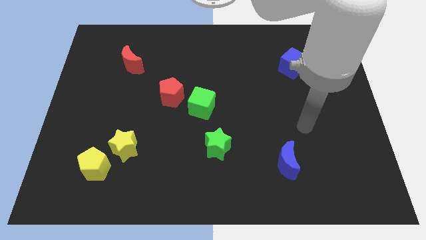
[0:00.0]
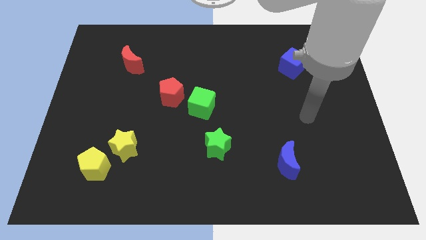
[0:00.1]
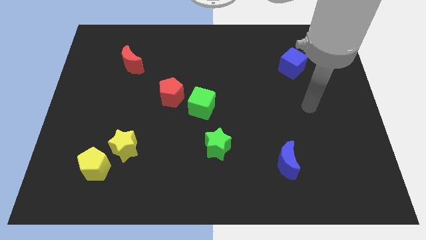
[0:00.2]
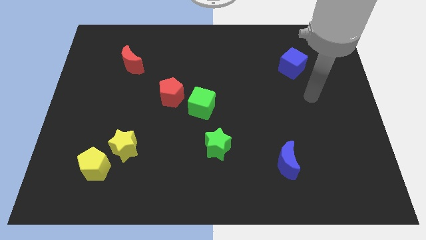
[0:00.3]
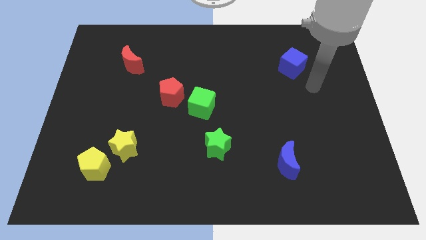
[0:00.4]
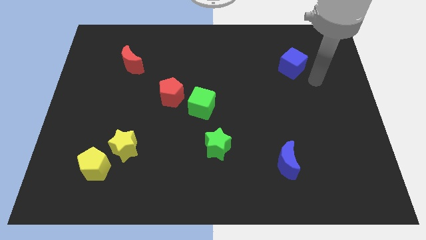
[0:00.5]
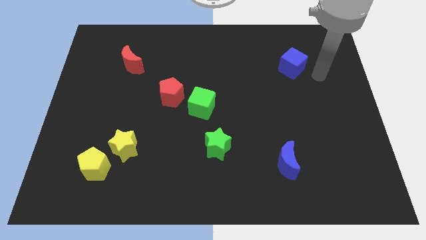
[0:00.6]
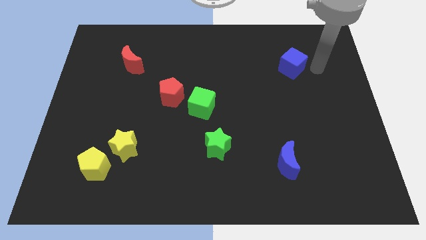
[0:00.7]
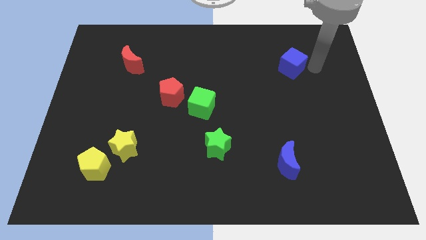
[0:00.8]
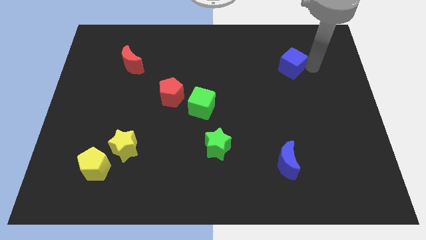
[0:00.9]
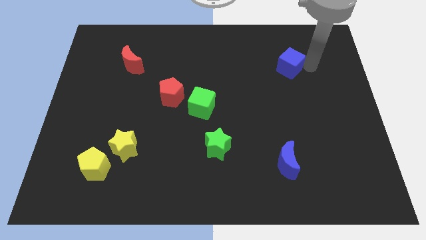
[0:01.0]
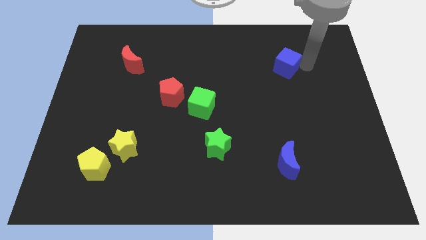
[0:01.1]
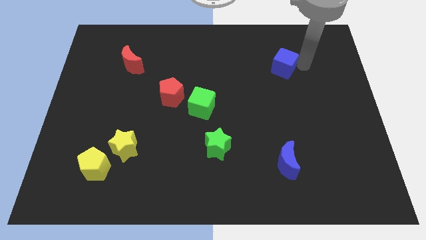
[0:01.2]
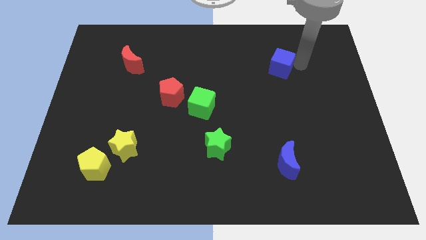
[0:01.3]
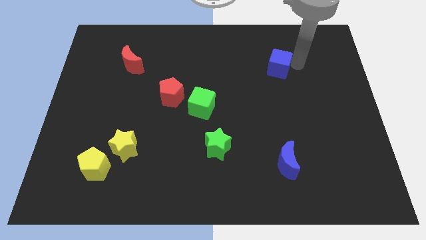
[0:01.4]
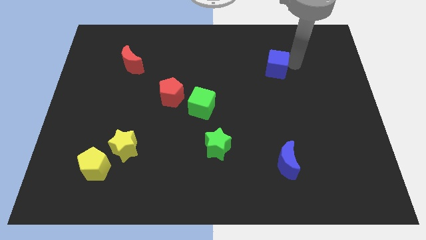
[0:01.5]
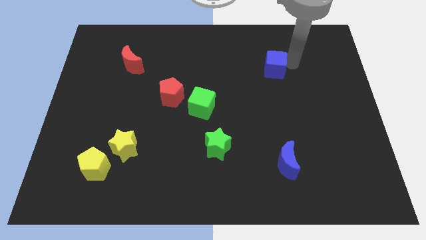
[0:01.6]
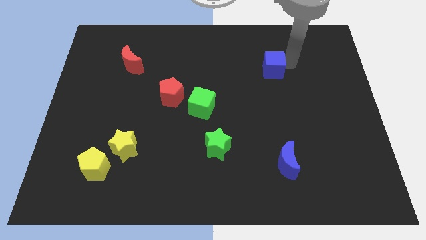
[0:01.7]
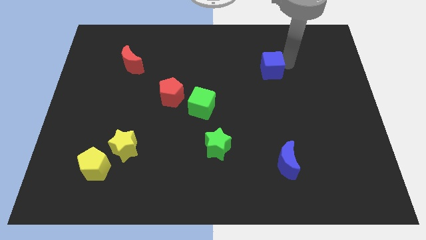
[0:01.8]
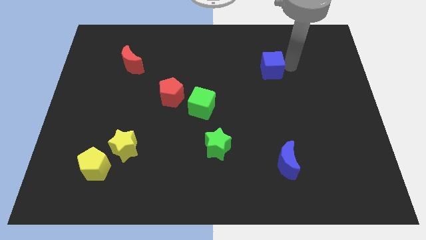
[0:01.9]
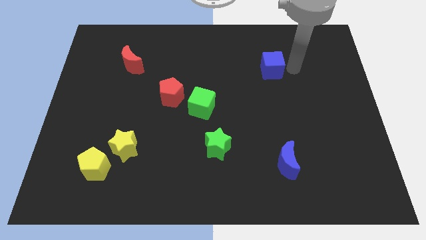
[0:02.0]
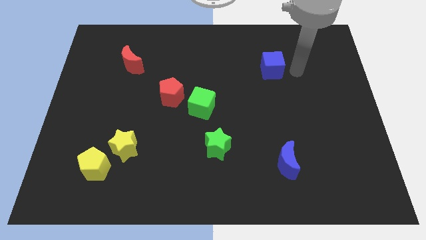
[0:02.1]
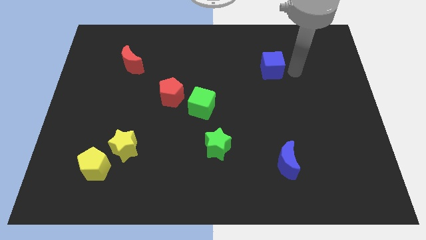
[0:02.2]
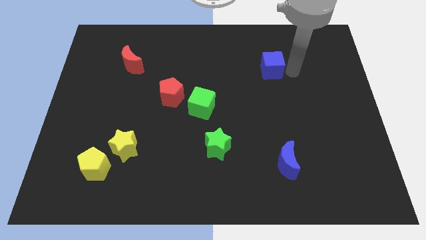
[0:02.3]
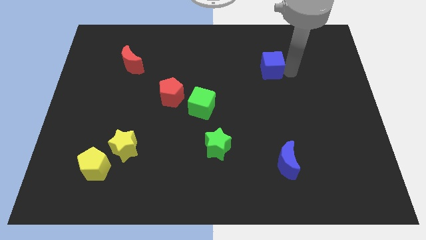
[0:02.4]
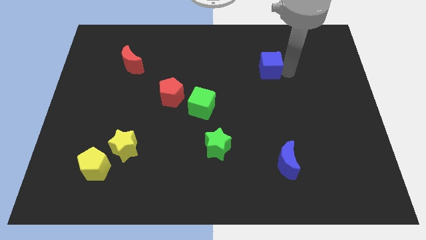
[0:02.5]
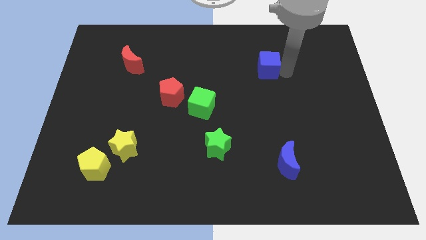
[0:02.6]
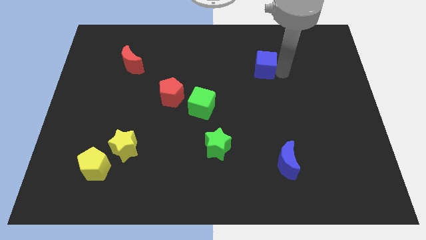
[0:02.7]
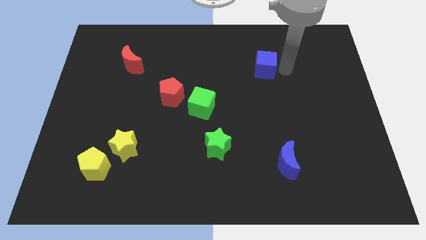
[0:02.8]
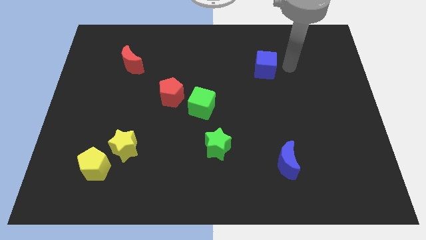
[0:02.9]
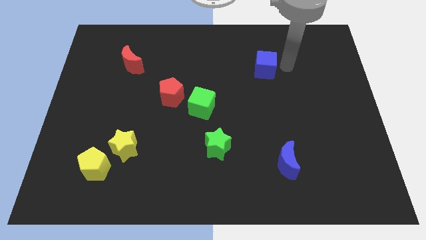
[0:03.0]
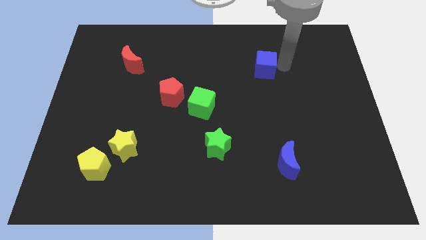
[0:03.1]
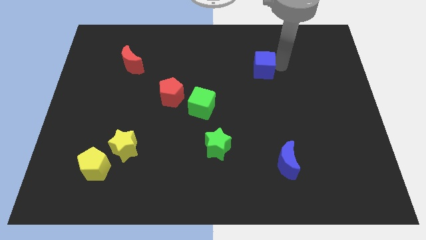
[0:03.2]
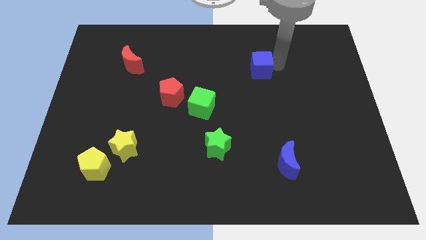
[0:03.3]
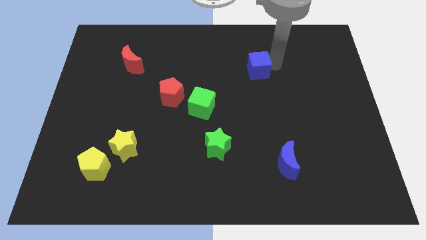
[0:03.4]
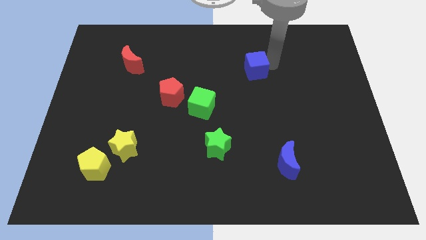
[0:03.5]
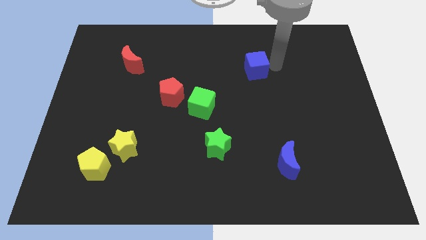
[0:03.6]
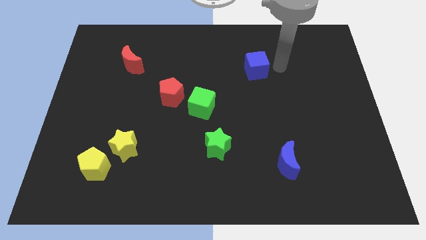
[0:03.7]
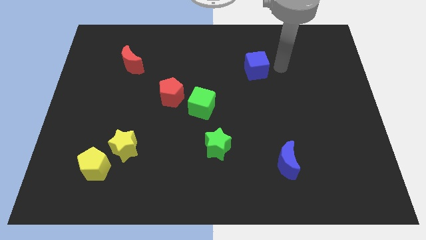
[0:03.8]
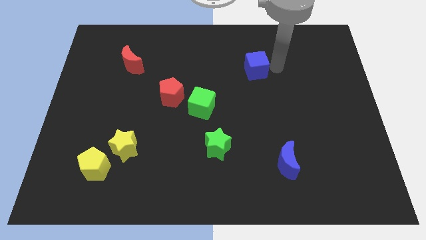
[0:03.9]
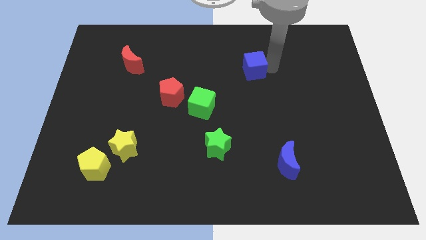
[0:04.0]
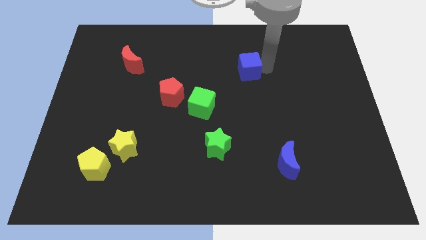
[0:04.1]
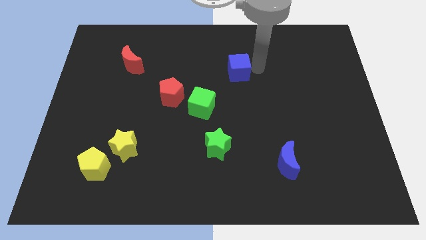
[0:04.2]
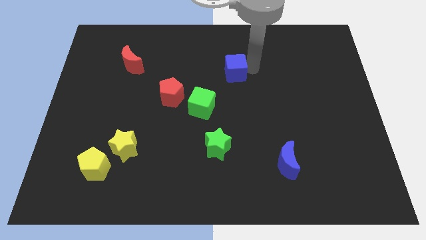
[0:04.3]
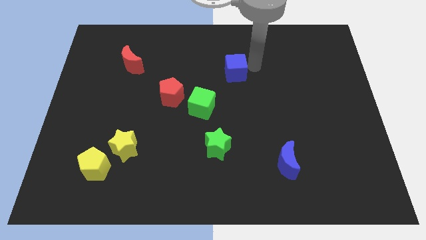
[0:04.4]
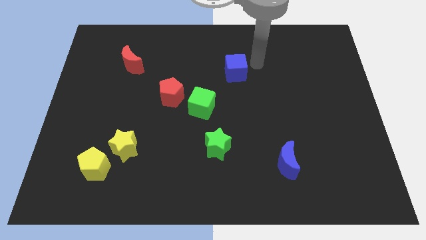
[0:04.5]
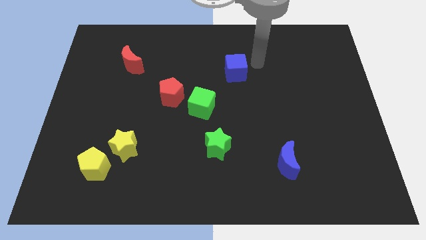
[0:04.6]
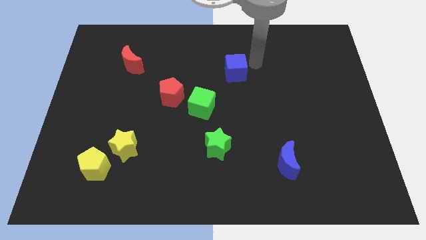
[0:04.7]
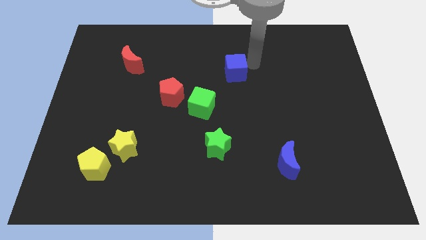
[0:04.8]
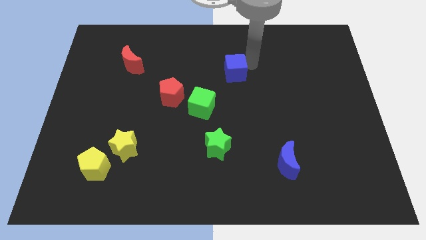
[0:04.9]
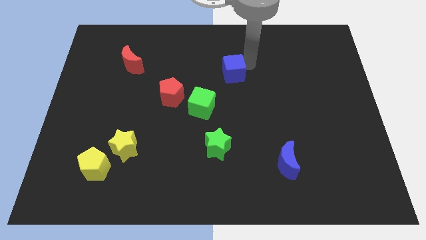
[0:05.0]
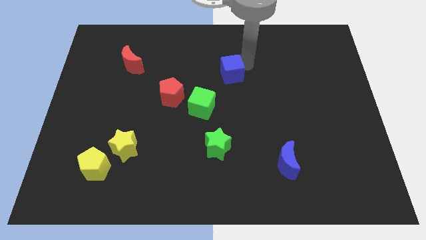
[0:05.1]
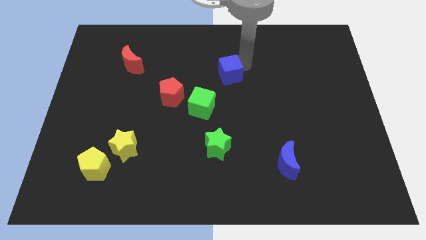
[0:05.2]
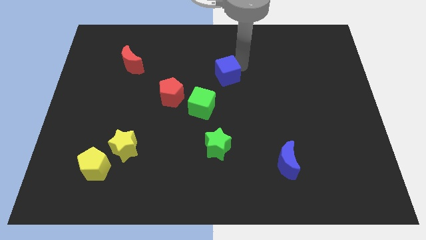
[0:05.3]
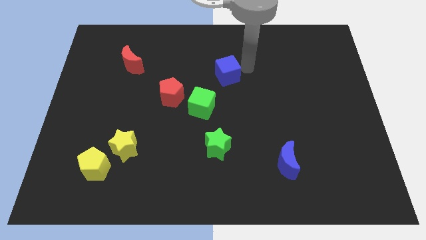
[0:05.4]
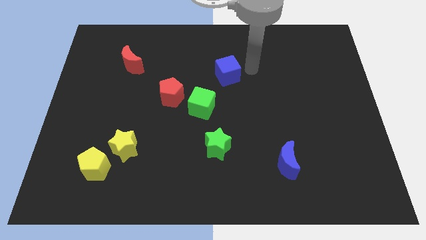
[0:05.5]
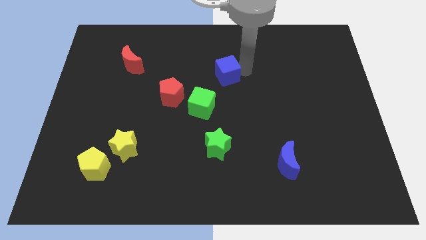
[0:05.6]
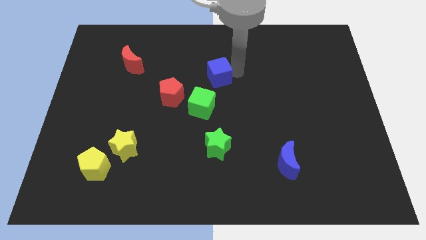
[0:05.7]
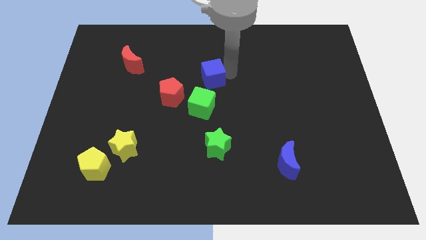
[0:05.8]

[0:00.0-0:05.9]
push the blue cube diagonally up and to the right of the red pentagon

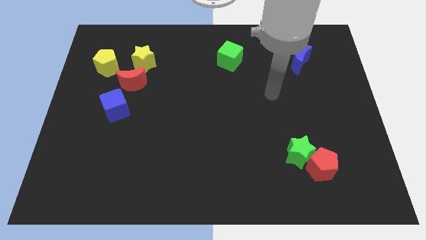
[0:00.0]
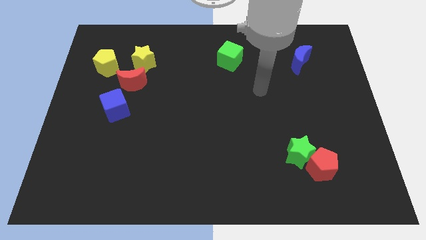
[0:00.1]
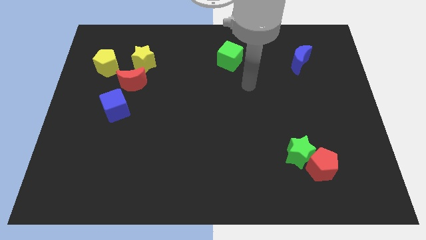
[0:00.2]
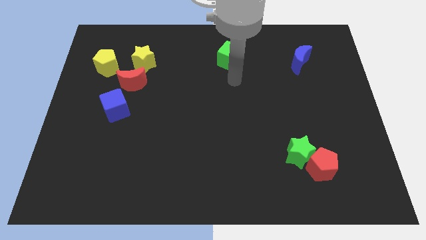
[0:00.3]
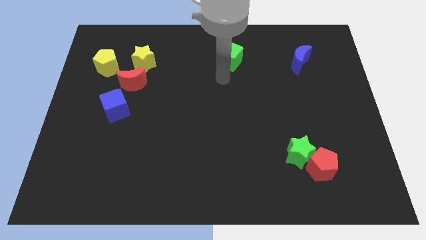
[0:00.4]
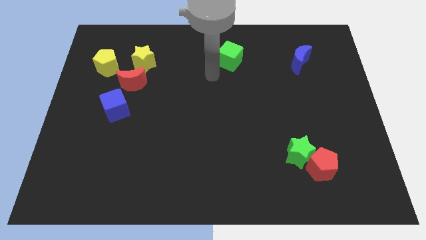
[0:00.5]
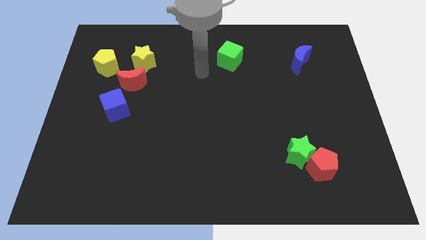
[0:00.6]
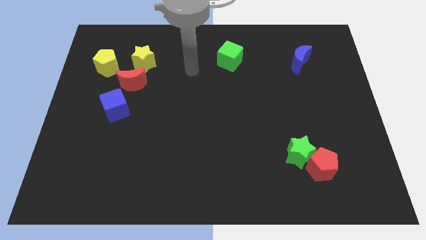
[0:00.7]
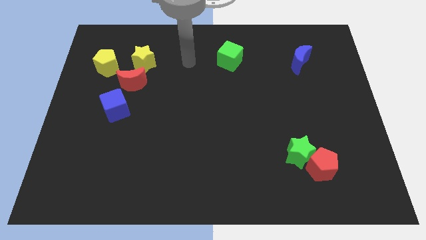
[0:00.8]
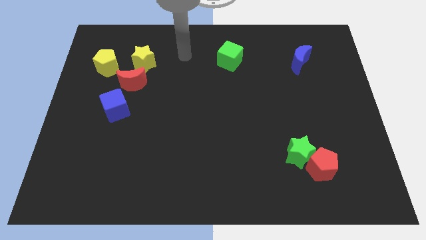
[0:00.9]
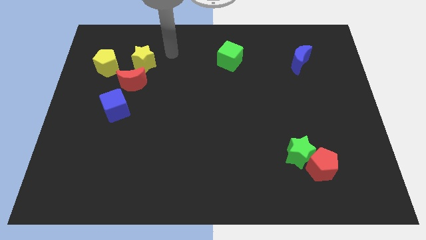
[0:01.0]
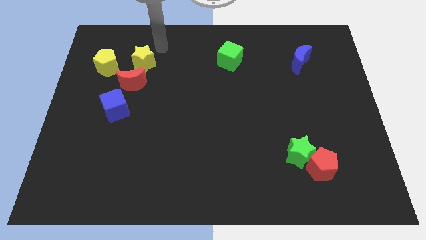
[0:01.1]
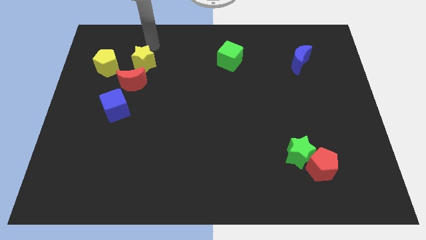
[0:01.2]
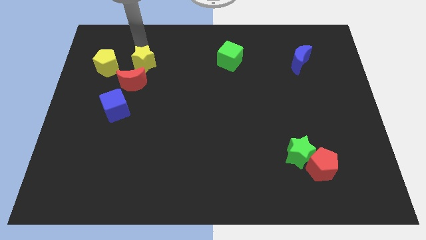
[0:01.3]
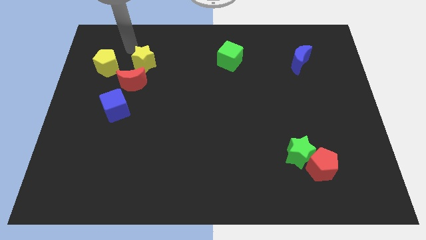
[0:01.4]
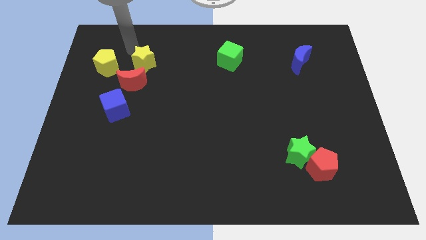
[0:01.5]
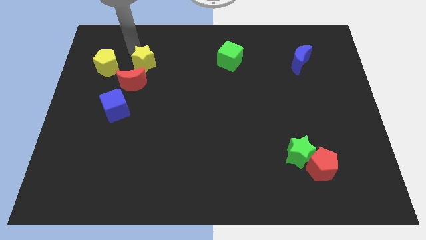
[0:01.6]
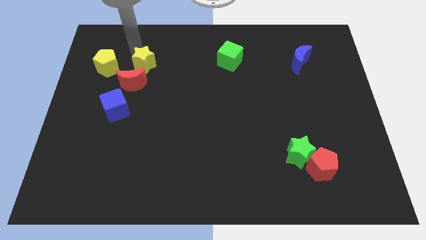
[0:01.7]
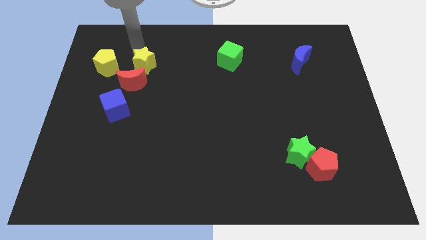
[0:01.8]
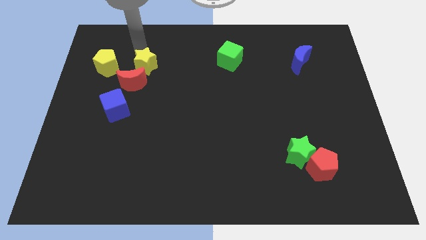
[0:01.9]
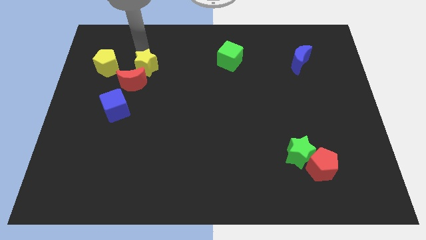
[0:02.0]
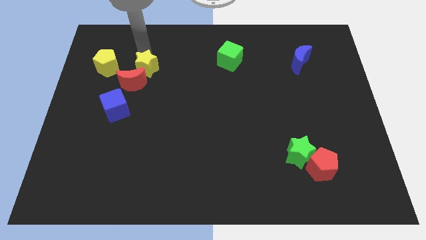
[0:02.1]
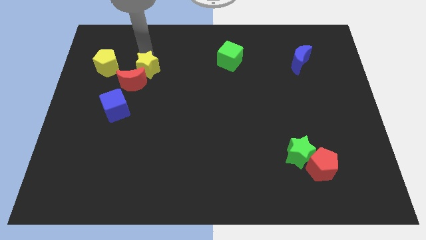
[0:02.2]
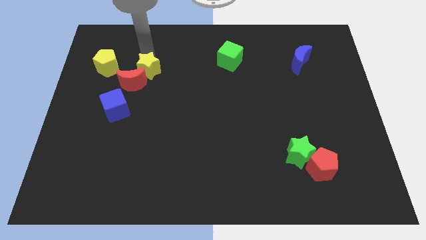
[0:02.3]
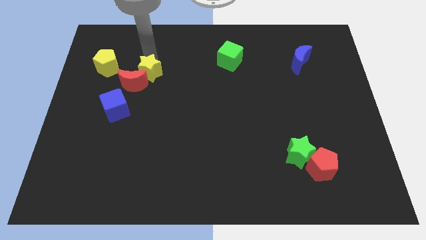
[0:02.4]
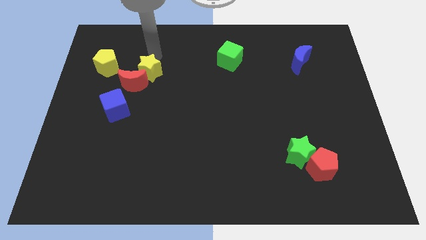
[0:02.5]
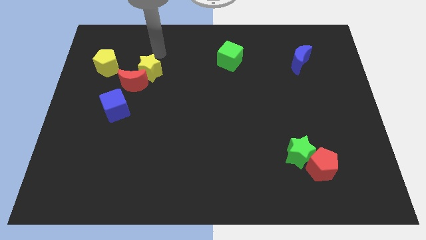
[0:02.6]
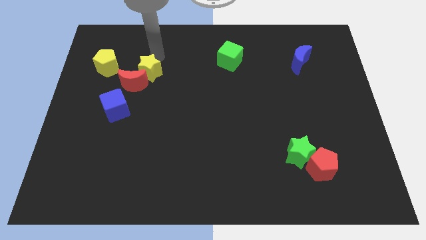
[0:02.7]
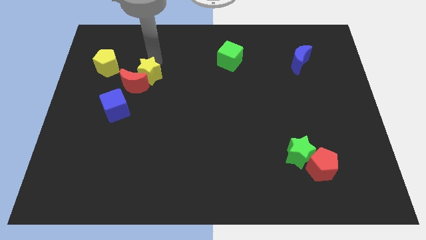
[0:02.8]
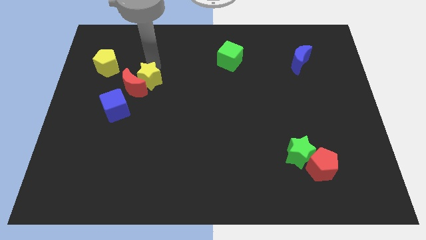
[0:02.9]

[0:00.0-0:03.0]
put the yellow star to the top right side of the blue cube
